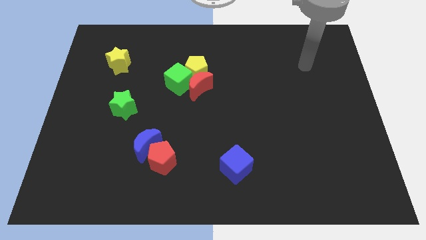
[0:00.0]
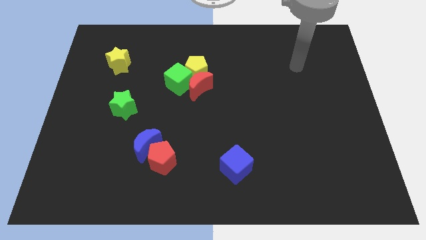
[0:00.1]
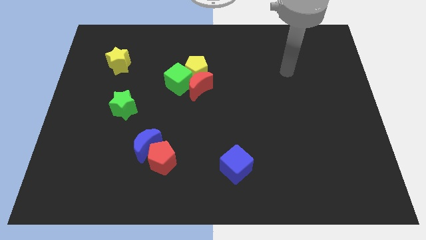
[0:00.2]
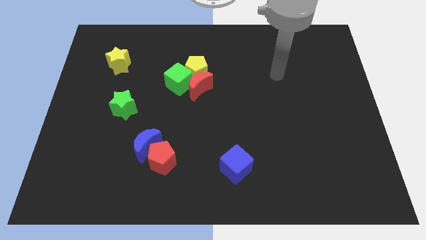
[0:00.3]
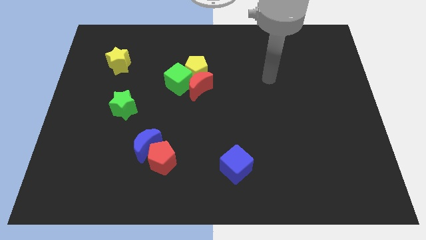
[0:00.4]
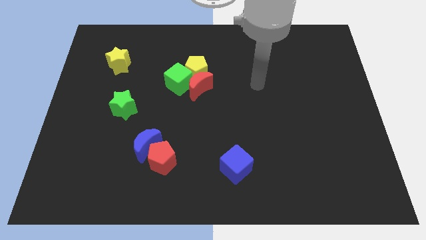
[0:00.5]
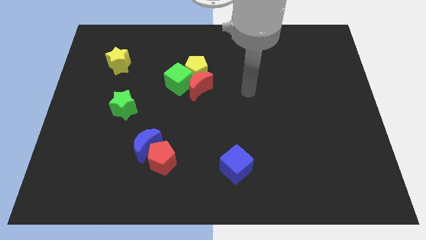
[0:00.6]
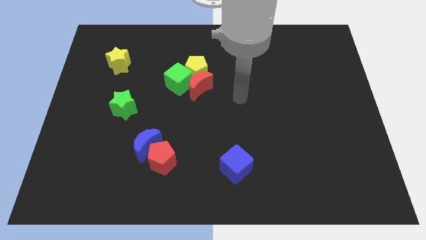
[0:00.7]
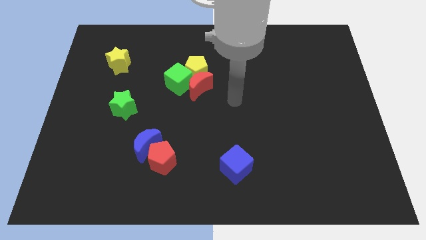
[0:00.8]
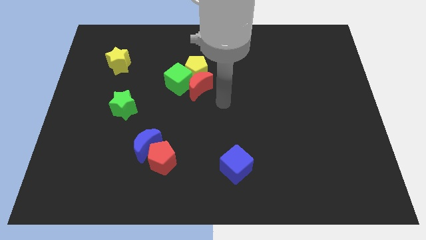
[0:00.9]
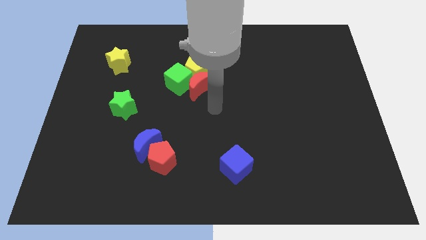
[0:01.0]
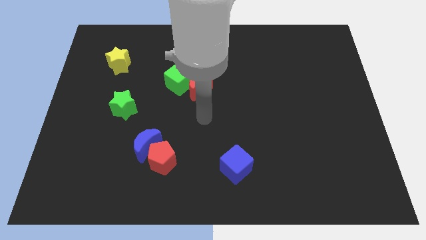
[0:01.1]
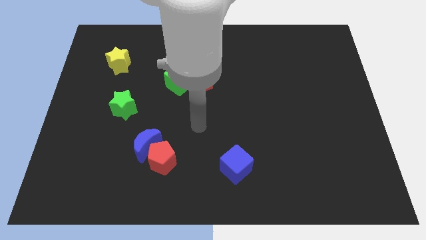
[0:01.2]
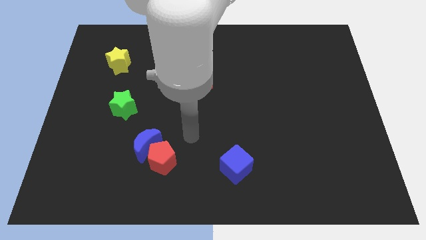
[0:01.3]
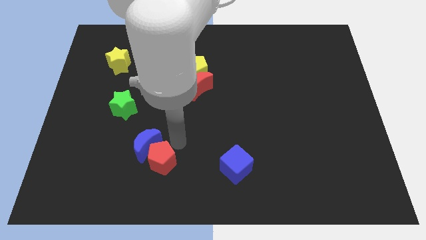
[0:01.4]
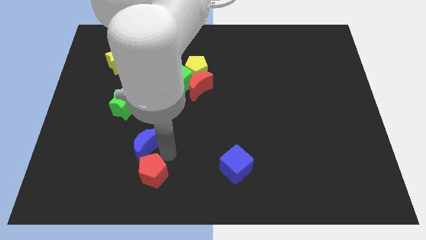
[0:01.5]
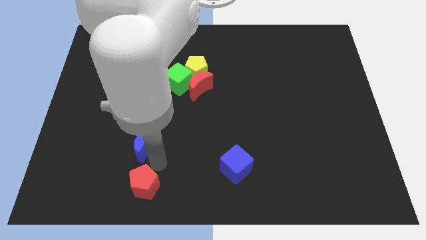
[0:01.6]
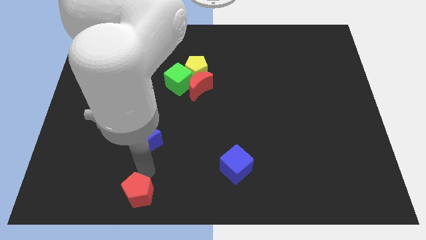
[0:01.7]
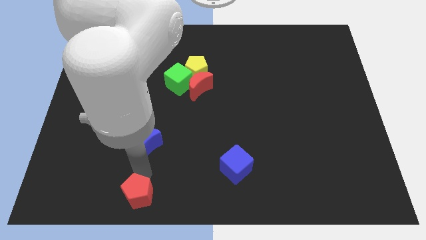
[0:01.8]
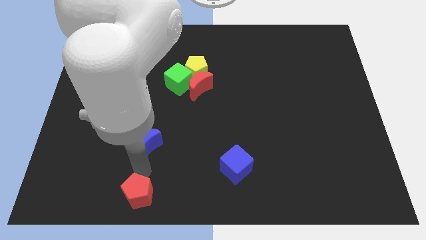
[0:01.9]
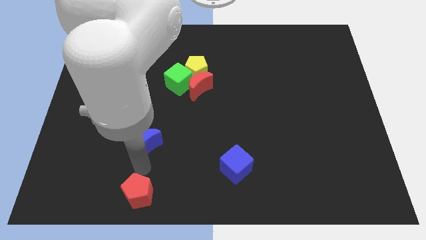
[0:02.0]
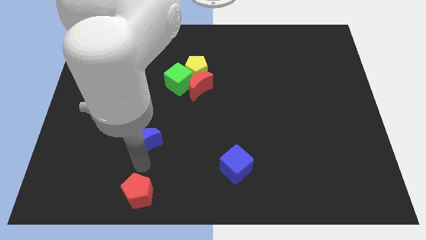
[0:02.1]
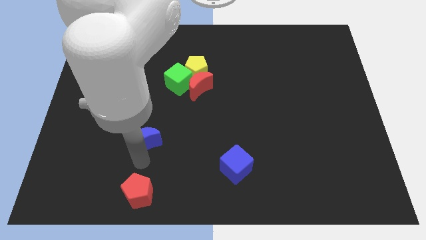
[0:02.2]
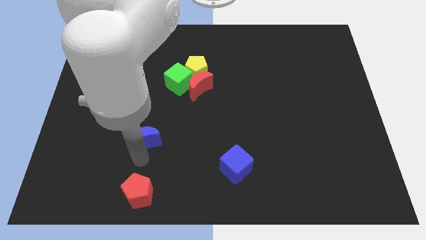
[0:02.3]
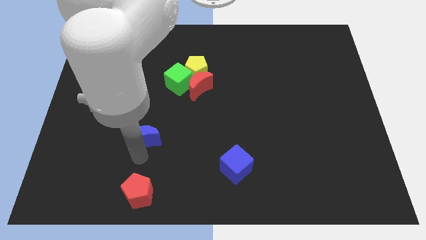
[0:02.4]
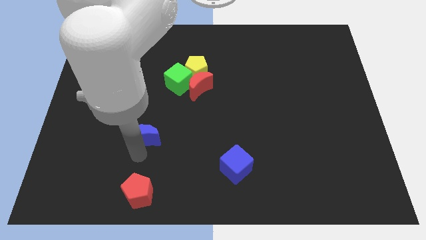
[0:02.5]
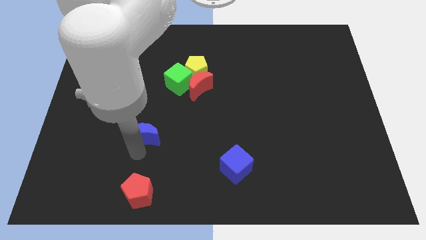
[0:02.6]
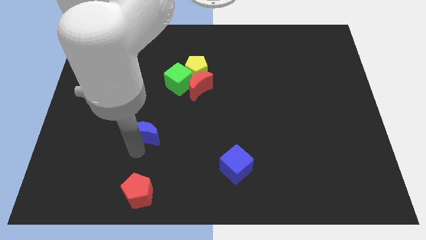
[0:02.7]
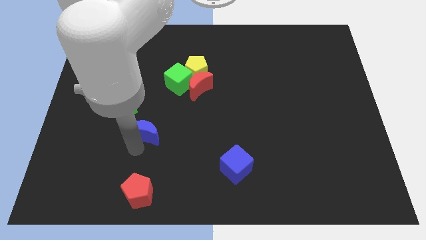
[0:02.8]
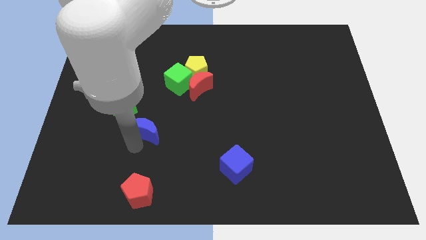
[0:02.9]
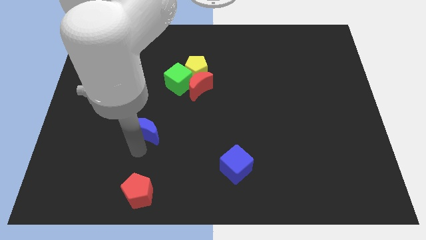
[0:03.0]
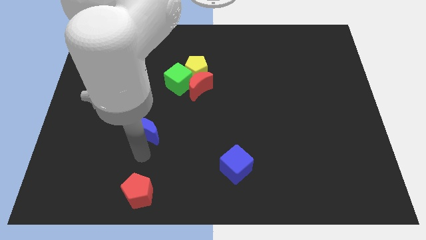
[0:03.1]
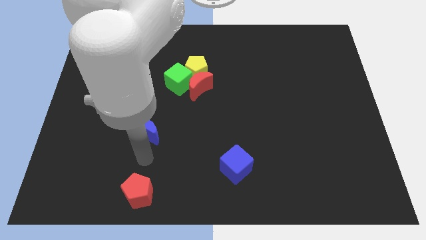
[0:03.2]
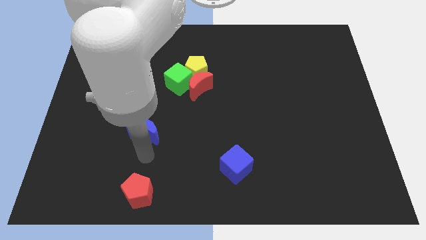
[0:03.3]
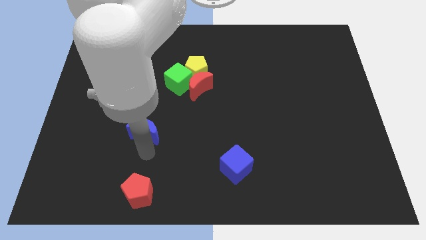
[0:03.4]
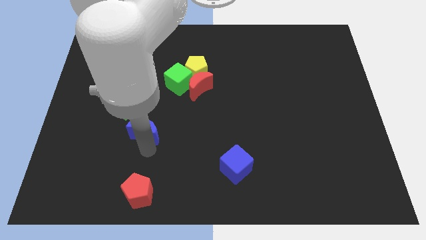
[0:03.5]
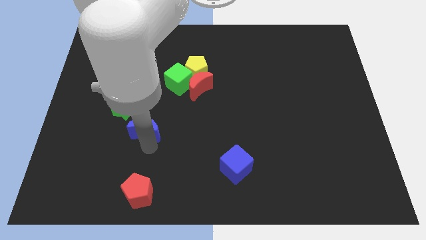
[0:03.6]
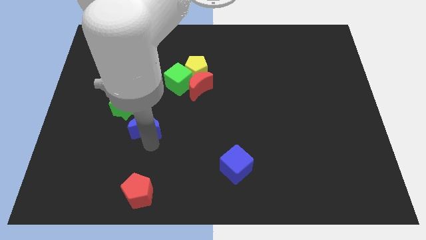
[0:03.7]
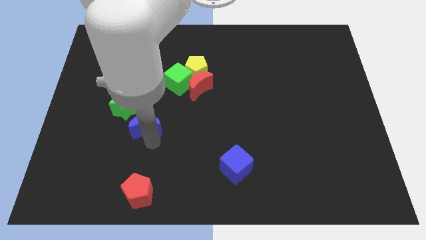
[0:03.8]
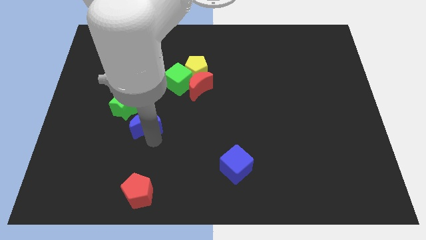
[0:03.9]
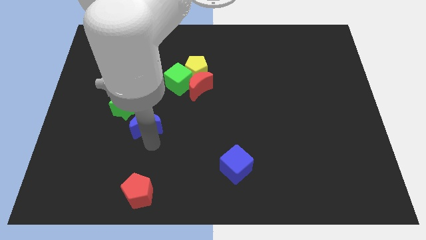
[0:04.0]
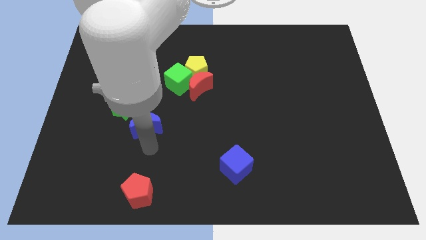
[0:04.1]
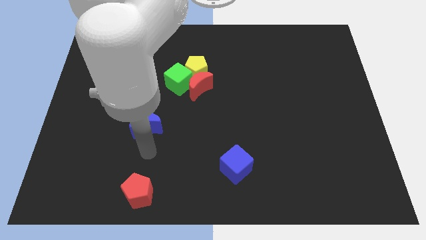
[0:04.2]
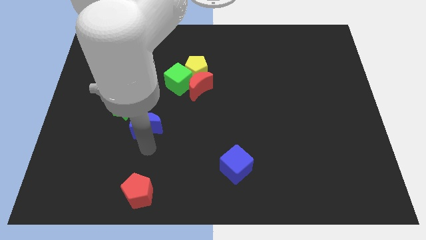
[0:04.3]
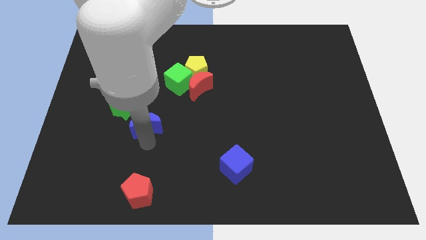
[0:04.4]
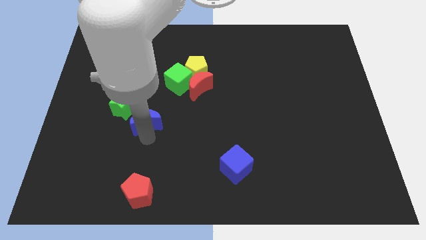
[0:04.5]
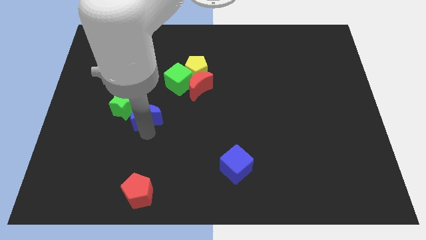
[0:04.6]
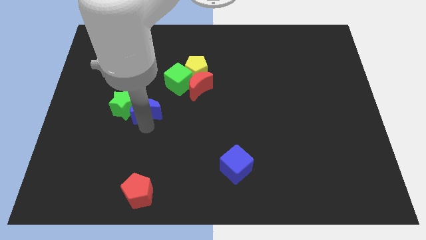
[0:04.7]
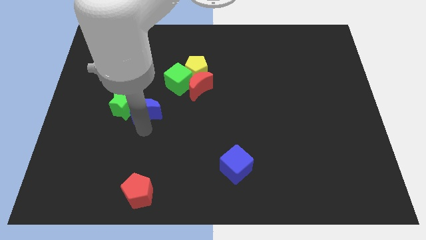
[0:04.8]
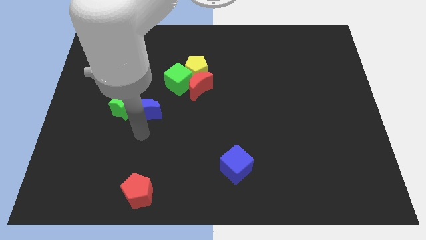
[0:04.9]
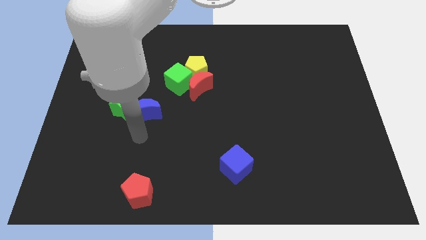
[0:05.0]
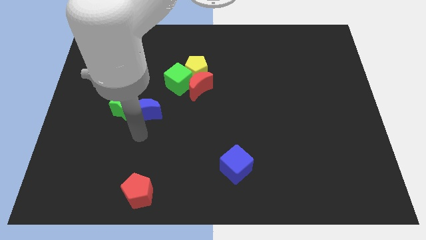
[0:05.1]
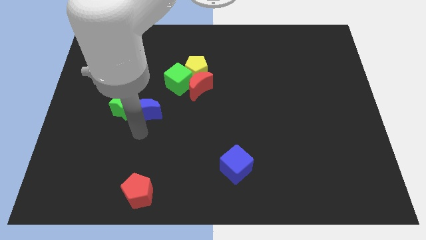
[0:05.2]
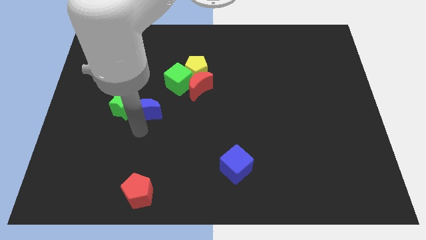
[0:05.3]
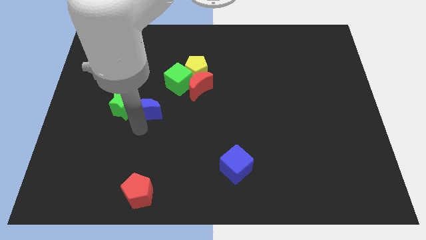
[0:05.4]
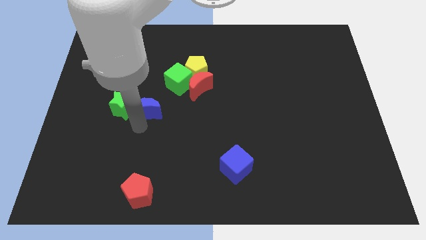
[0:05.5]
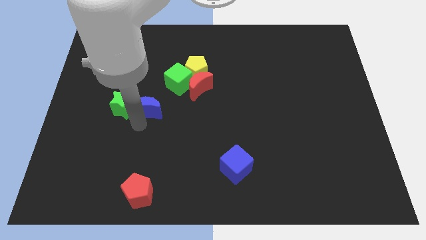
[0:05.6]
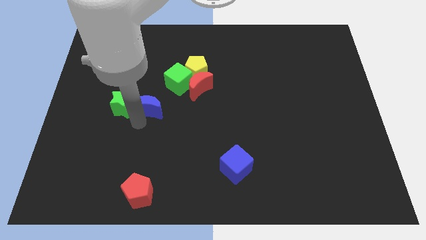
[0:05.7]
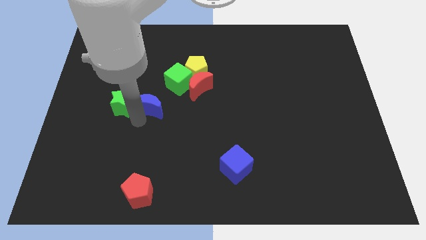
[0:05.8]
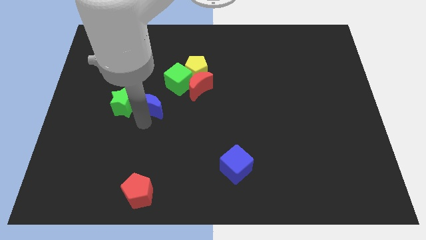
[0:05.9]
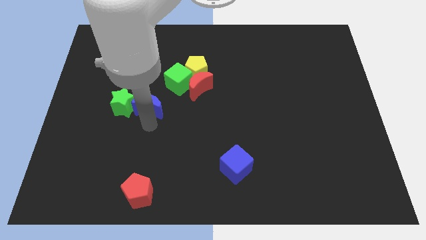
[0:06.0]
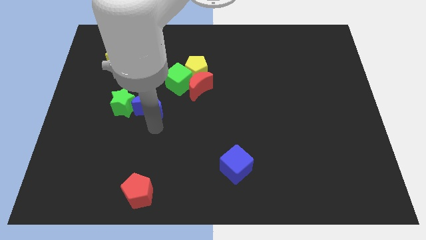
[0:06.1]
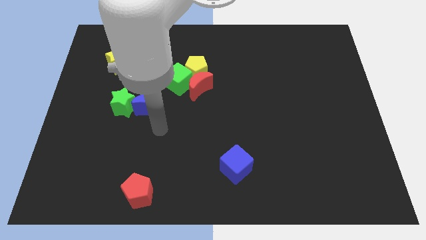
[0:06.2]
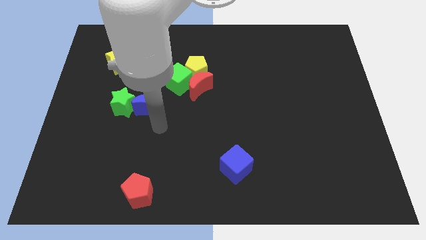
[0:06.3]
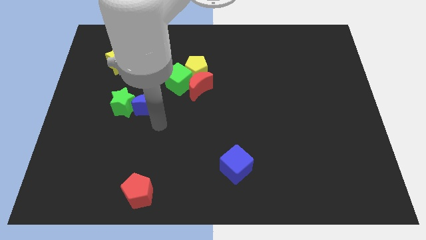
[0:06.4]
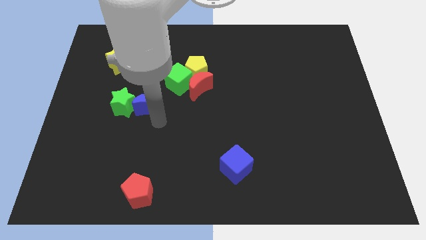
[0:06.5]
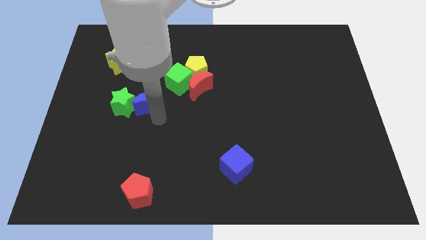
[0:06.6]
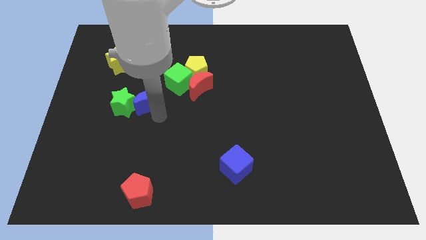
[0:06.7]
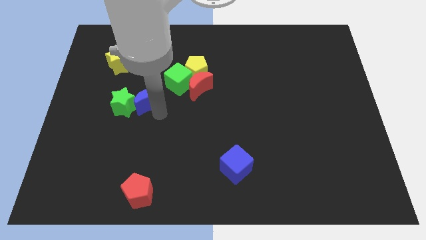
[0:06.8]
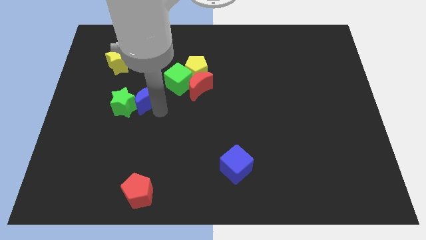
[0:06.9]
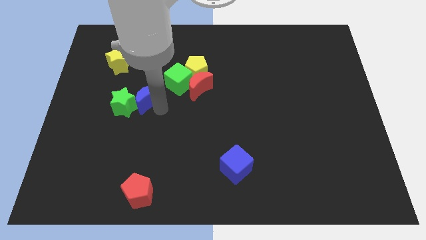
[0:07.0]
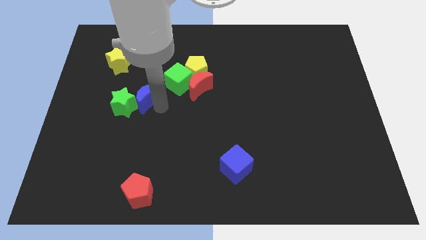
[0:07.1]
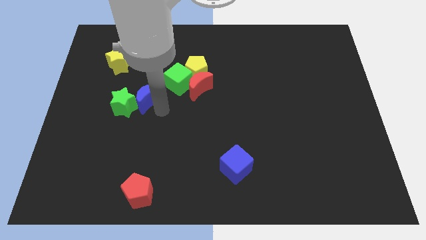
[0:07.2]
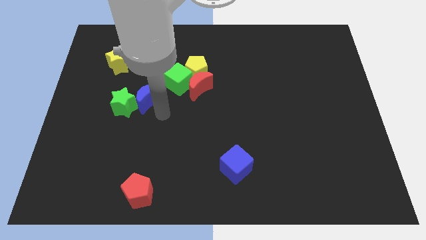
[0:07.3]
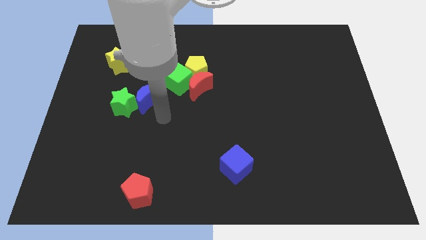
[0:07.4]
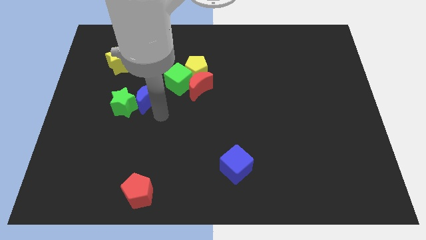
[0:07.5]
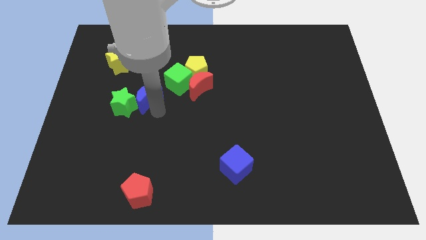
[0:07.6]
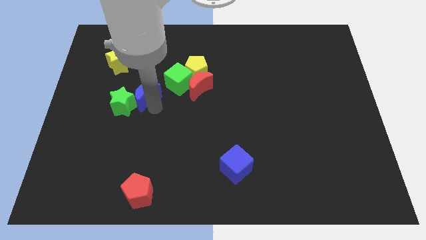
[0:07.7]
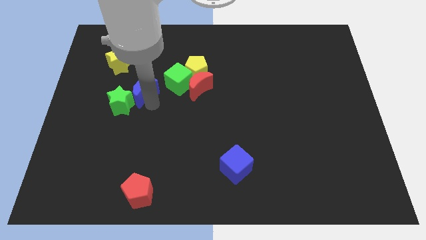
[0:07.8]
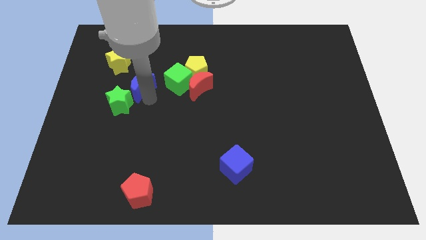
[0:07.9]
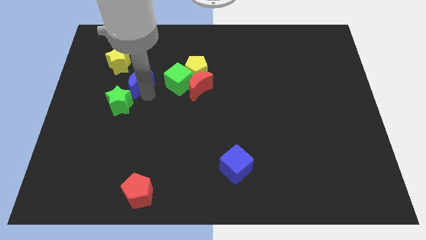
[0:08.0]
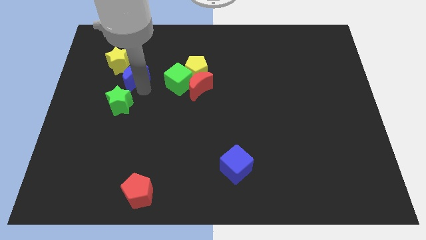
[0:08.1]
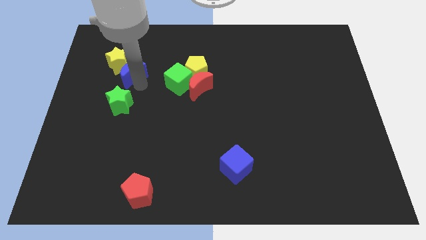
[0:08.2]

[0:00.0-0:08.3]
put the blue moon to the yellow star

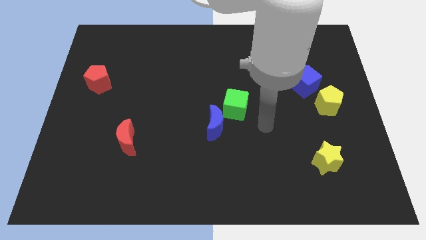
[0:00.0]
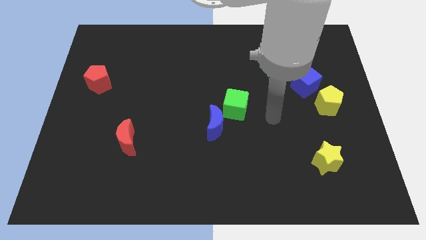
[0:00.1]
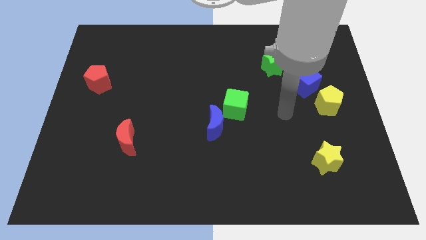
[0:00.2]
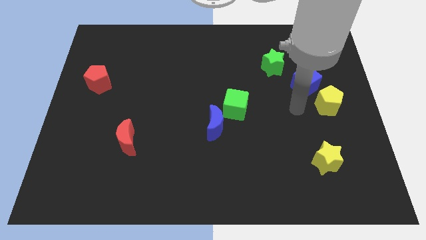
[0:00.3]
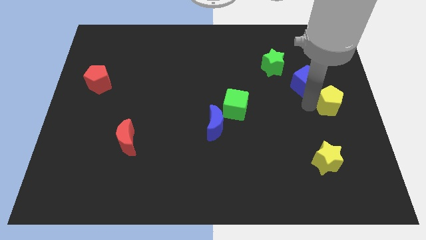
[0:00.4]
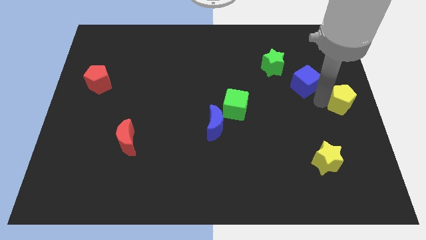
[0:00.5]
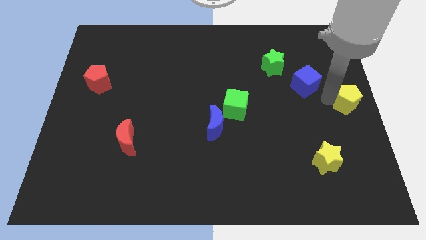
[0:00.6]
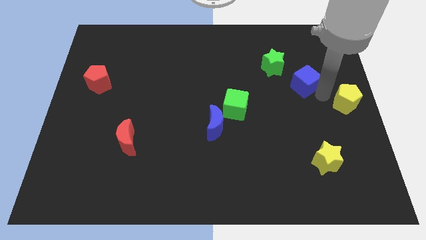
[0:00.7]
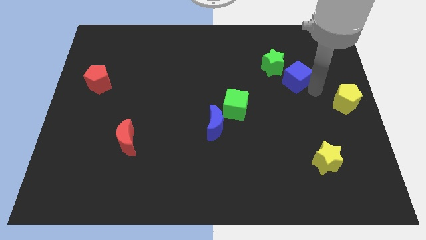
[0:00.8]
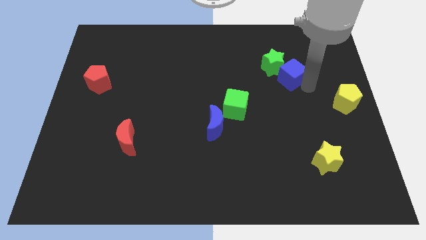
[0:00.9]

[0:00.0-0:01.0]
move the blue cube close to the green star
